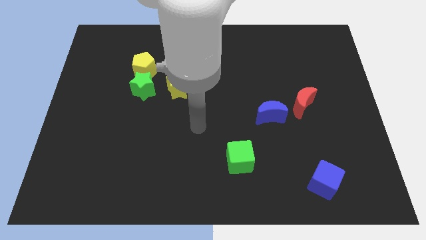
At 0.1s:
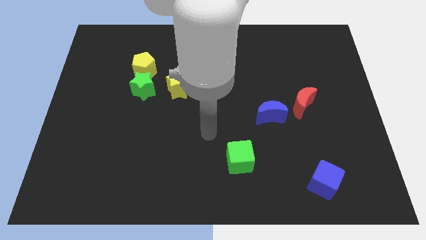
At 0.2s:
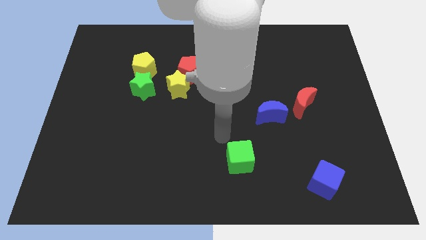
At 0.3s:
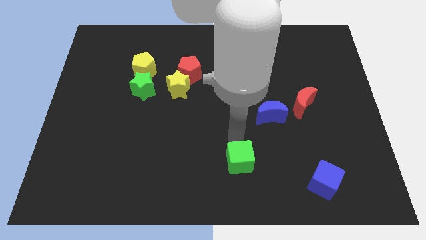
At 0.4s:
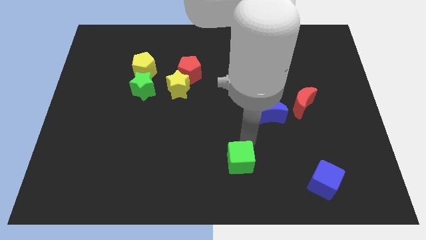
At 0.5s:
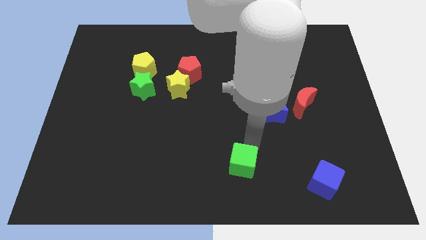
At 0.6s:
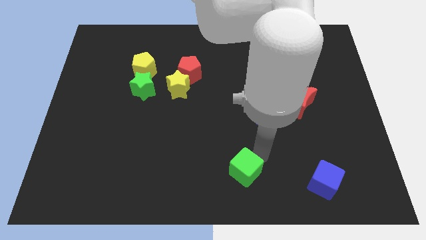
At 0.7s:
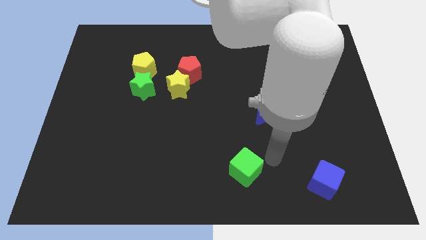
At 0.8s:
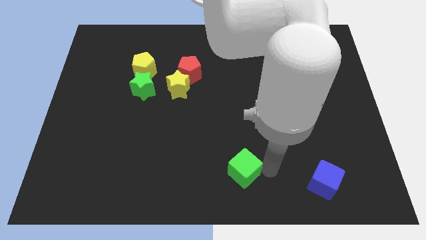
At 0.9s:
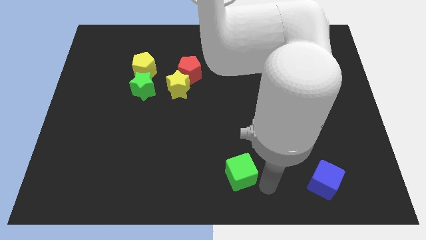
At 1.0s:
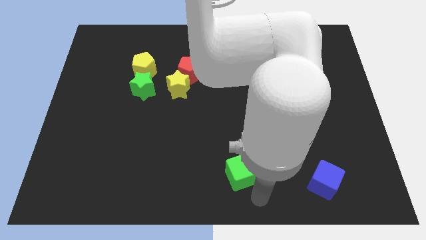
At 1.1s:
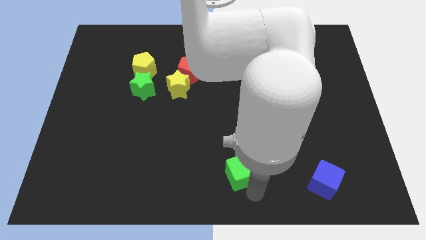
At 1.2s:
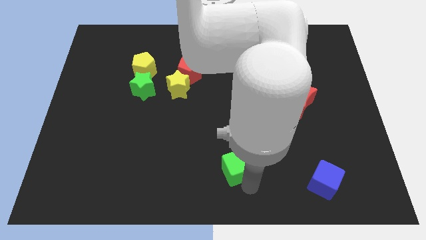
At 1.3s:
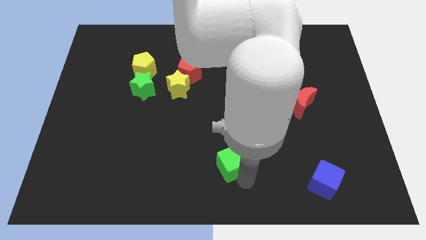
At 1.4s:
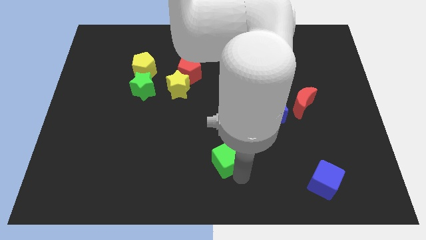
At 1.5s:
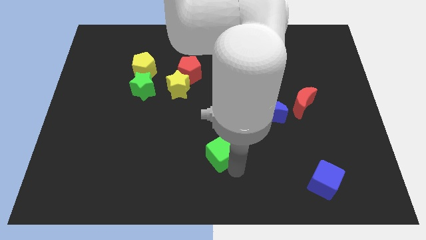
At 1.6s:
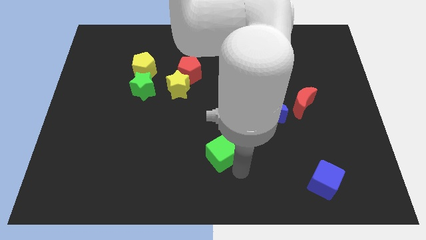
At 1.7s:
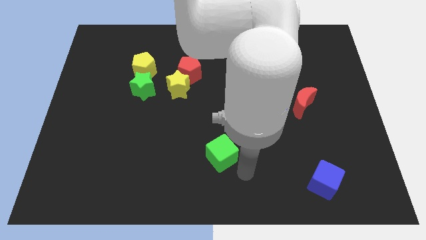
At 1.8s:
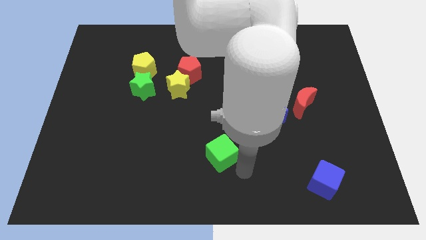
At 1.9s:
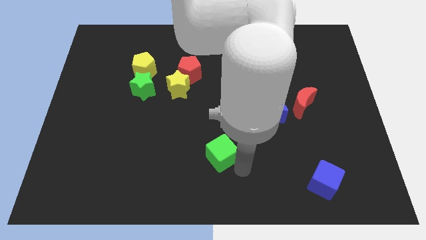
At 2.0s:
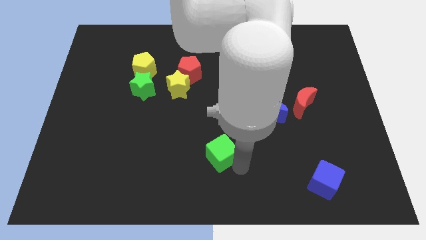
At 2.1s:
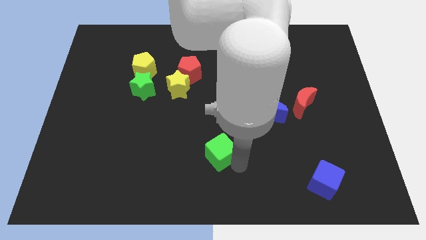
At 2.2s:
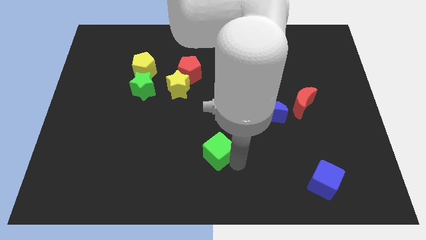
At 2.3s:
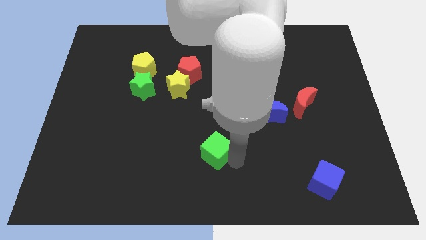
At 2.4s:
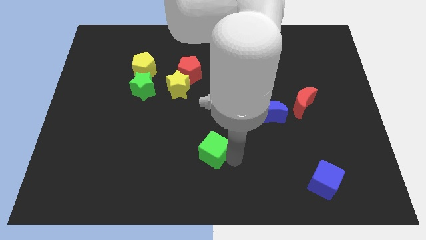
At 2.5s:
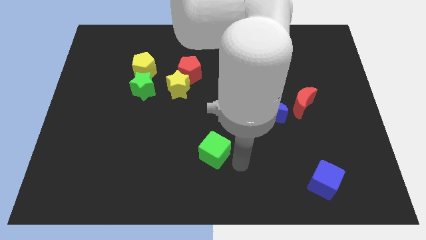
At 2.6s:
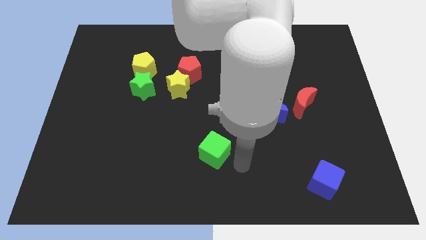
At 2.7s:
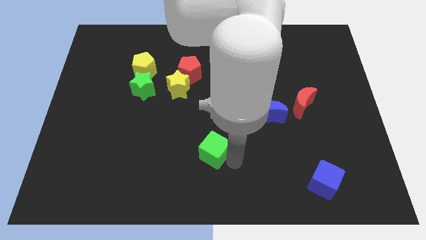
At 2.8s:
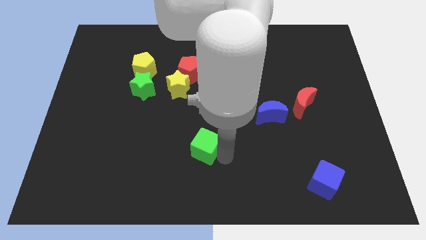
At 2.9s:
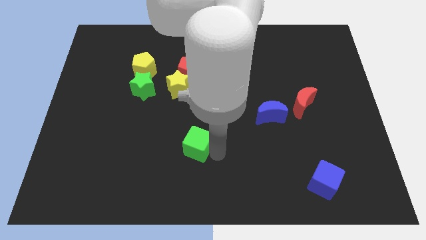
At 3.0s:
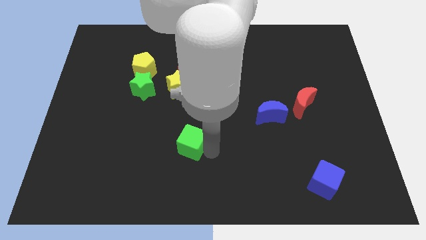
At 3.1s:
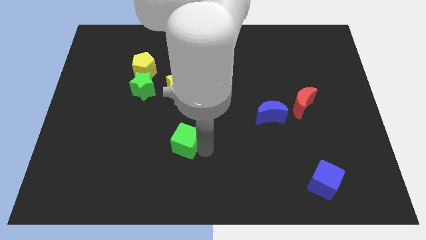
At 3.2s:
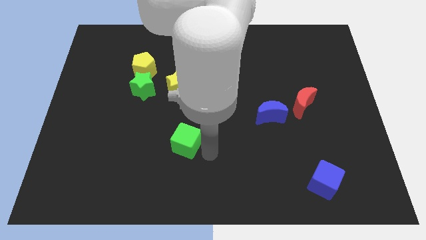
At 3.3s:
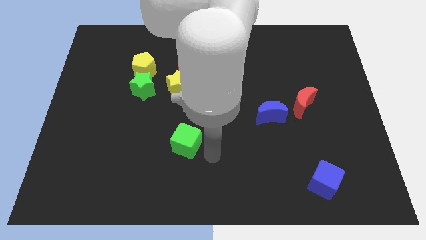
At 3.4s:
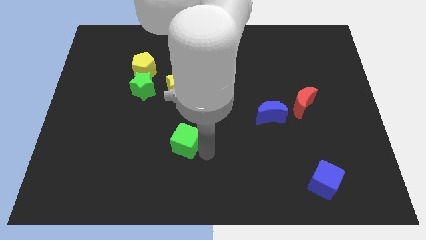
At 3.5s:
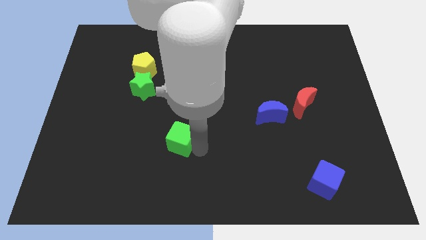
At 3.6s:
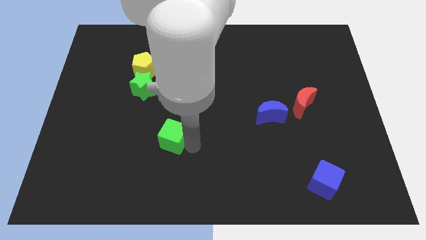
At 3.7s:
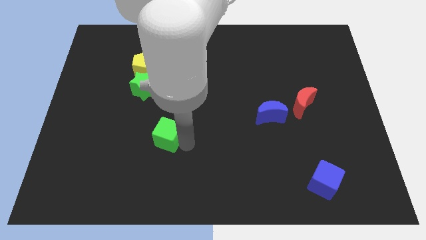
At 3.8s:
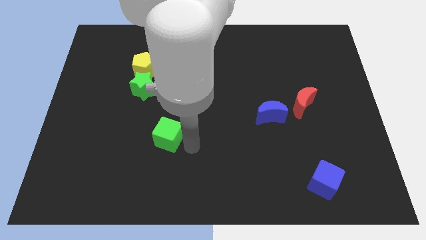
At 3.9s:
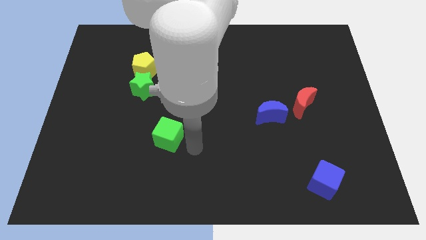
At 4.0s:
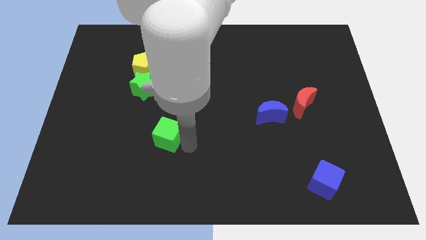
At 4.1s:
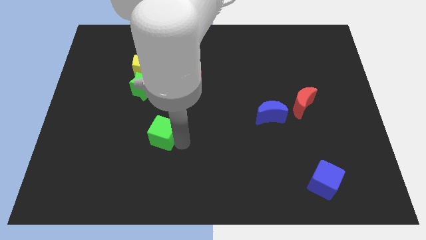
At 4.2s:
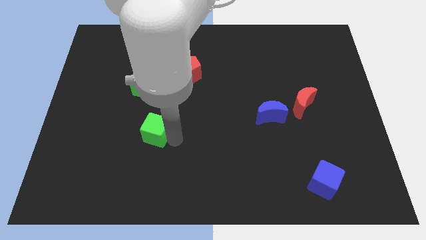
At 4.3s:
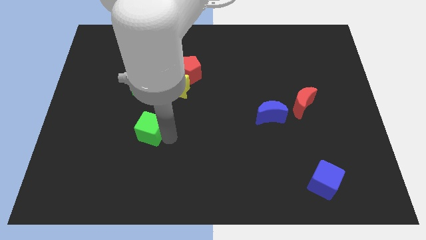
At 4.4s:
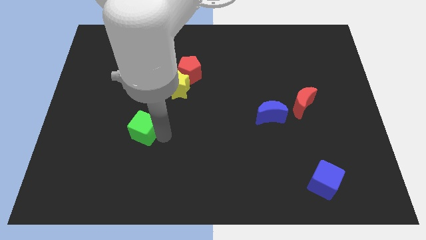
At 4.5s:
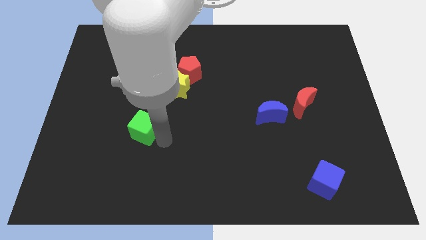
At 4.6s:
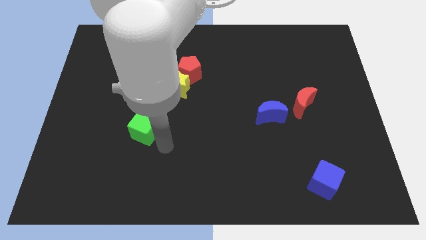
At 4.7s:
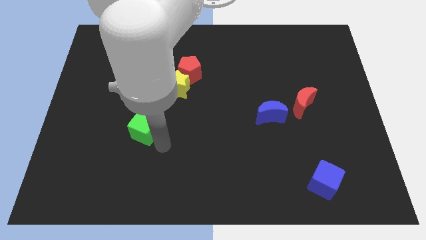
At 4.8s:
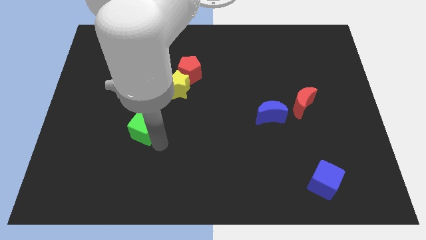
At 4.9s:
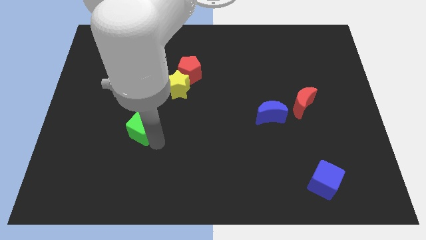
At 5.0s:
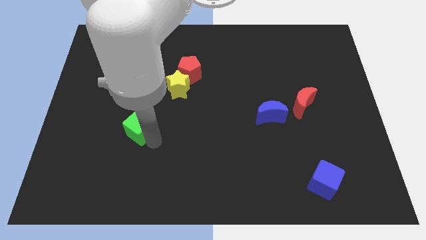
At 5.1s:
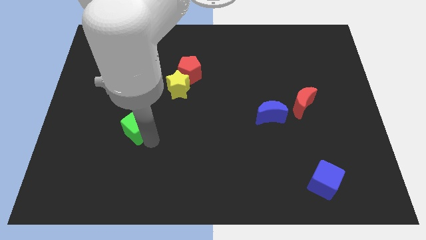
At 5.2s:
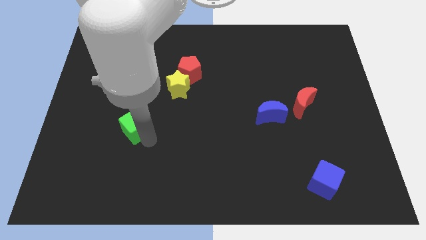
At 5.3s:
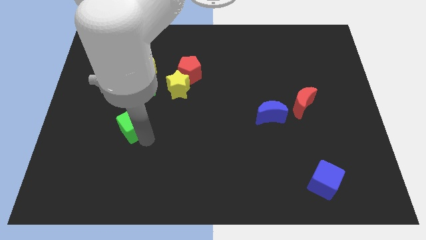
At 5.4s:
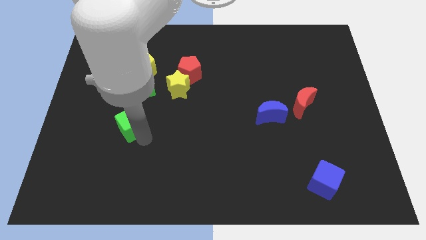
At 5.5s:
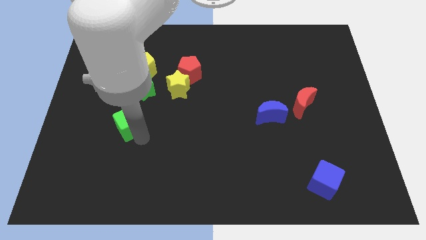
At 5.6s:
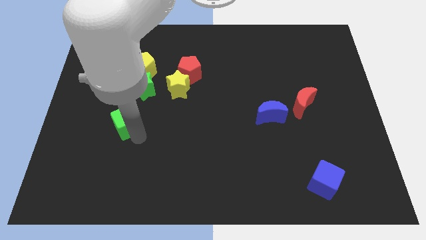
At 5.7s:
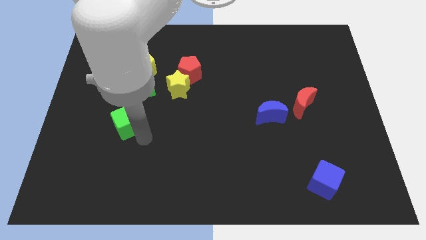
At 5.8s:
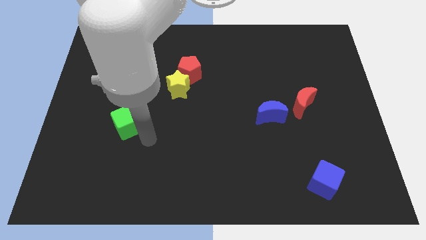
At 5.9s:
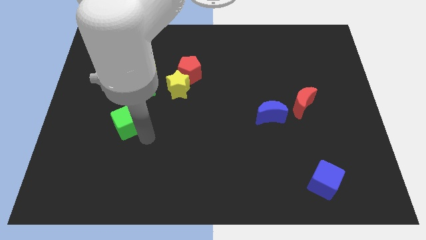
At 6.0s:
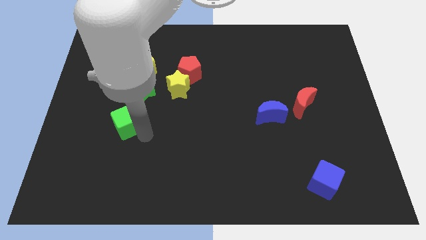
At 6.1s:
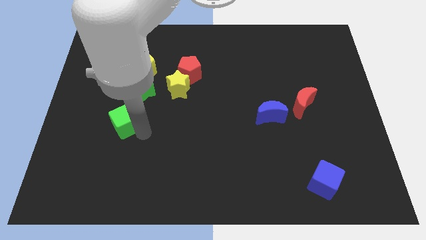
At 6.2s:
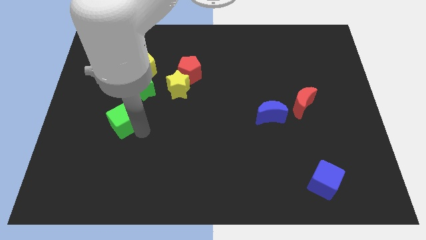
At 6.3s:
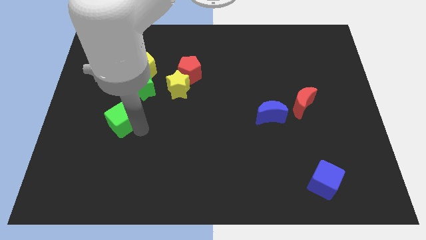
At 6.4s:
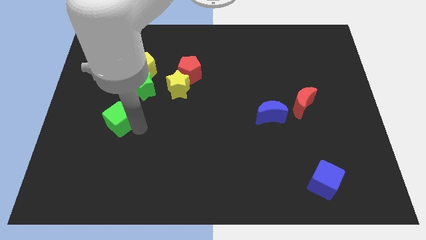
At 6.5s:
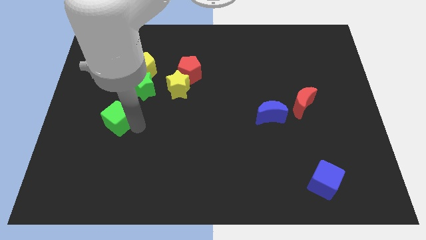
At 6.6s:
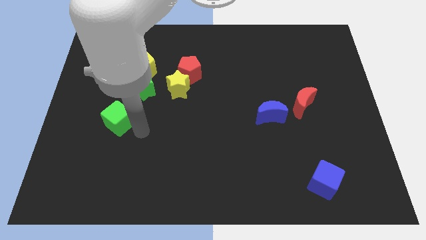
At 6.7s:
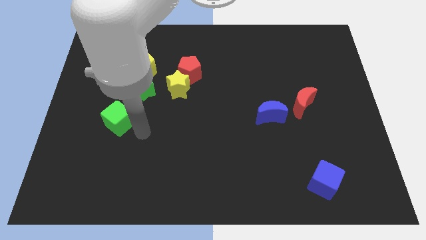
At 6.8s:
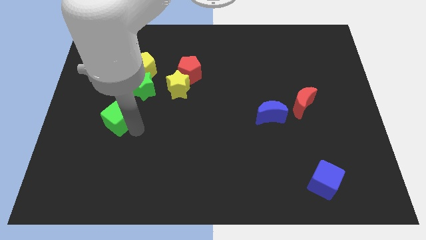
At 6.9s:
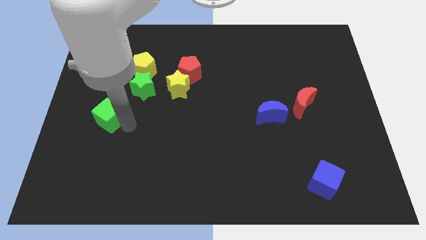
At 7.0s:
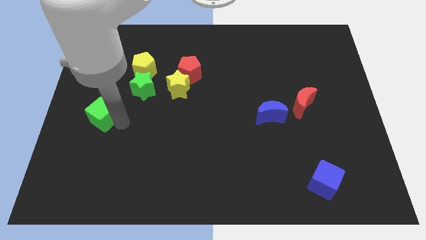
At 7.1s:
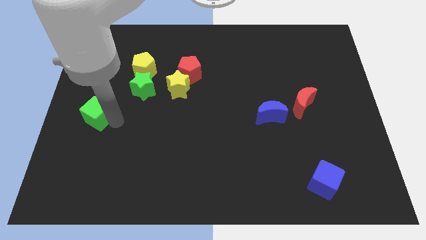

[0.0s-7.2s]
put the green cube to the center left
